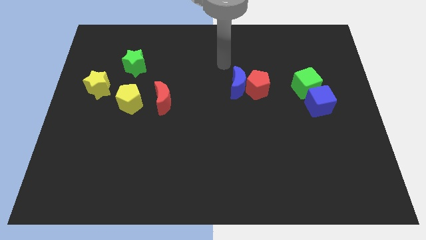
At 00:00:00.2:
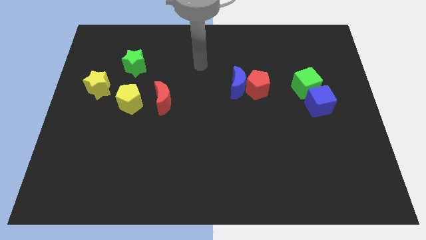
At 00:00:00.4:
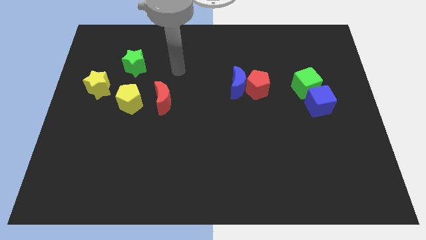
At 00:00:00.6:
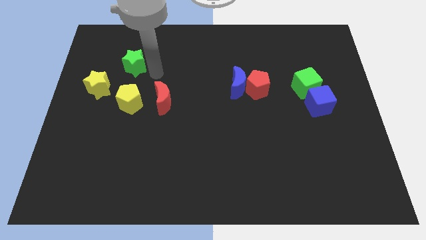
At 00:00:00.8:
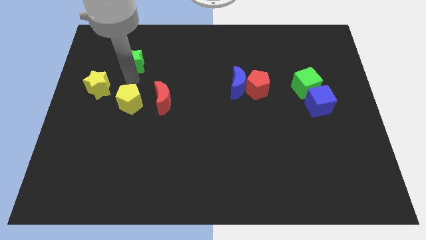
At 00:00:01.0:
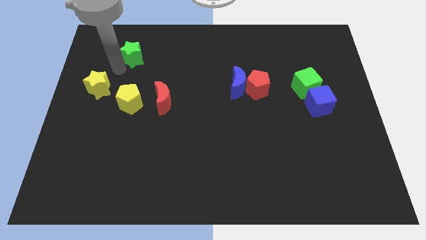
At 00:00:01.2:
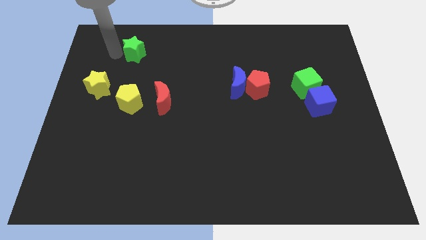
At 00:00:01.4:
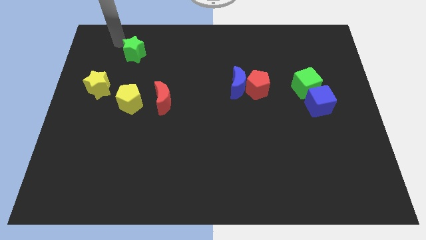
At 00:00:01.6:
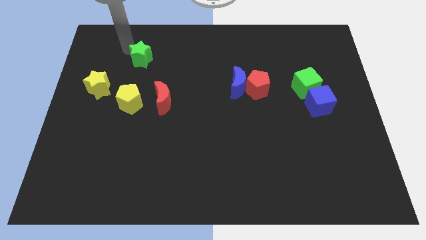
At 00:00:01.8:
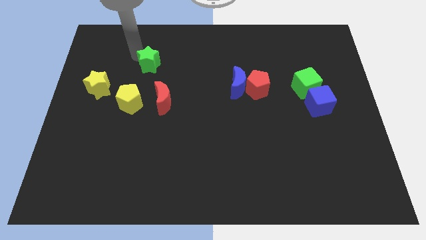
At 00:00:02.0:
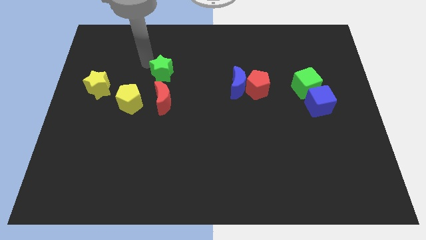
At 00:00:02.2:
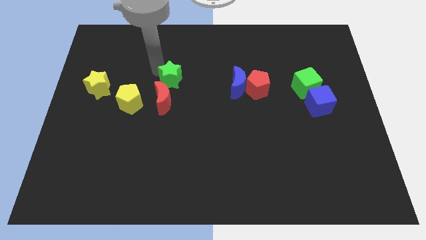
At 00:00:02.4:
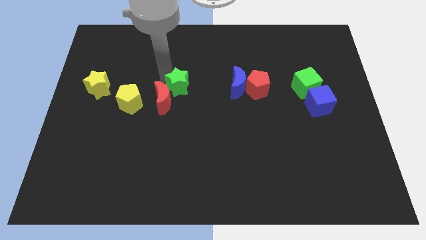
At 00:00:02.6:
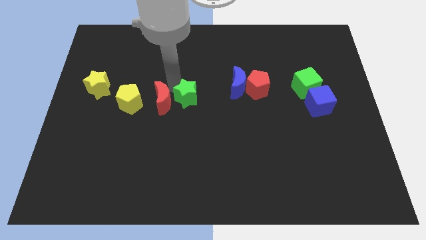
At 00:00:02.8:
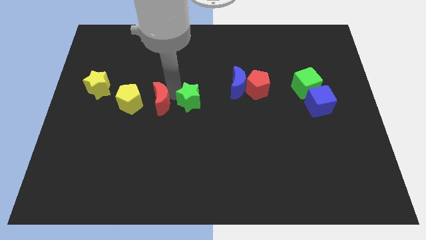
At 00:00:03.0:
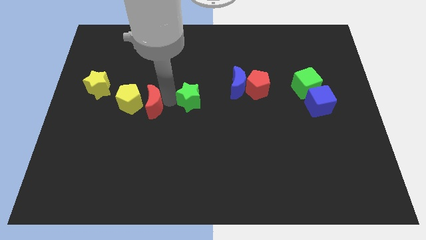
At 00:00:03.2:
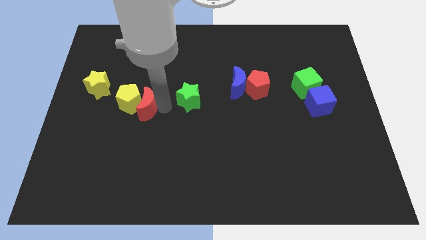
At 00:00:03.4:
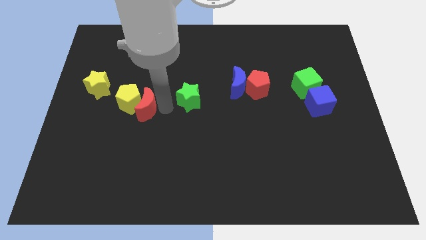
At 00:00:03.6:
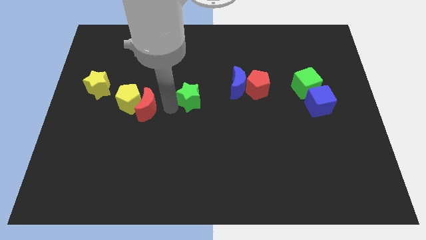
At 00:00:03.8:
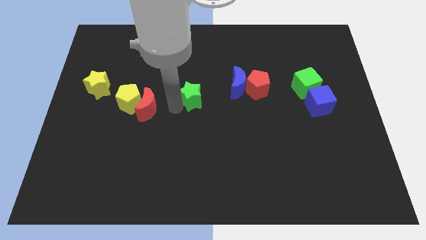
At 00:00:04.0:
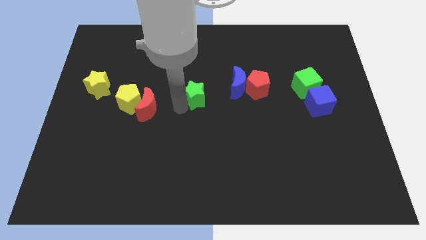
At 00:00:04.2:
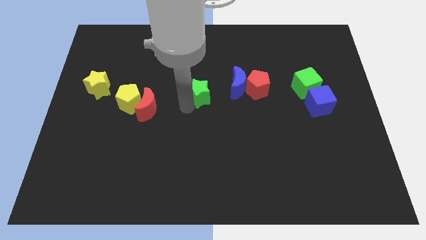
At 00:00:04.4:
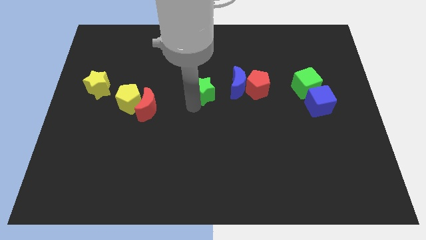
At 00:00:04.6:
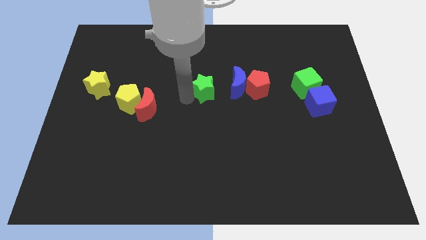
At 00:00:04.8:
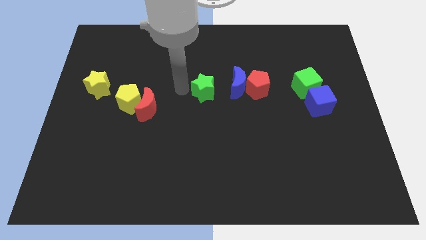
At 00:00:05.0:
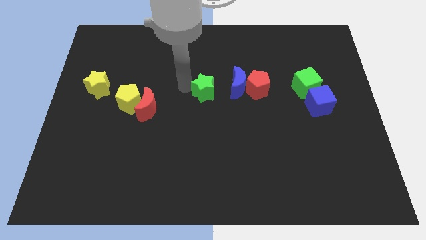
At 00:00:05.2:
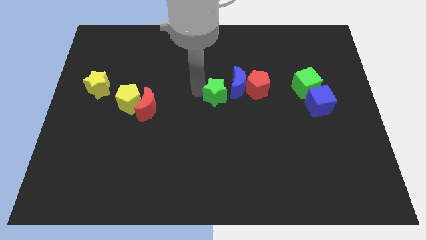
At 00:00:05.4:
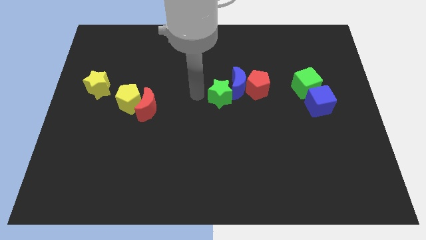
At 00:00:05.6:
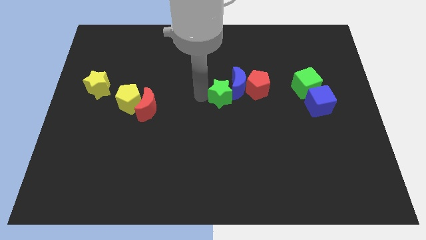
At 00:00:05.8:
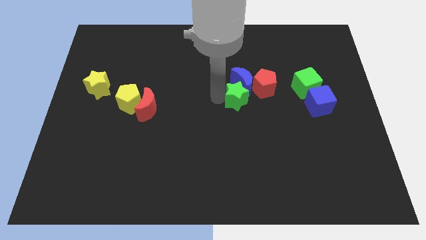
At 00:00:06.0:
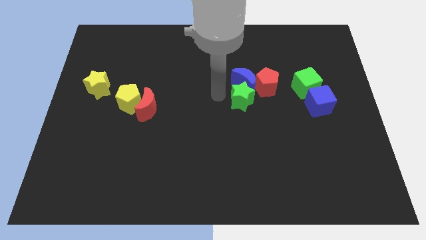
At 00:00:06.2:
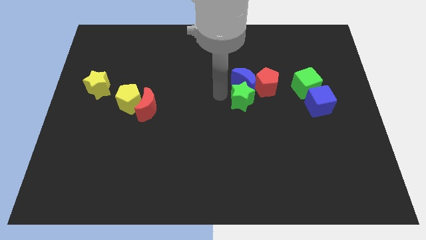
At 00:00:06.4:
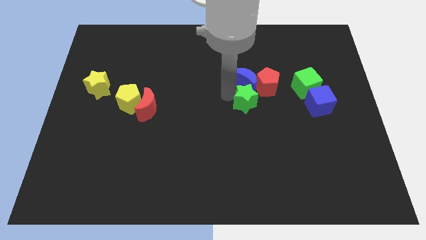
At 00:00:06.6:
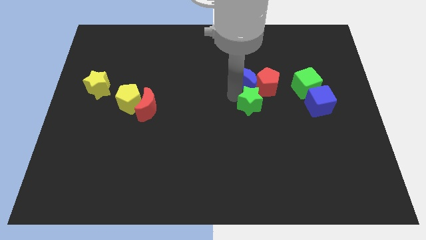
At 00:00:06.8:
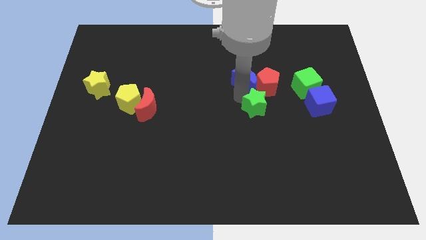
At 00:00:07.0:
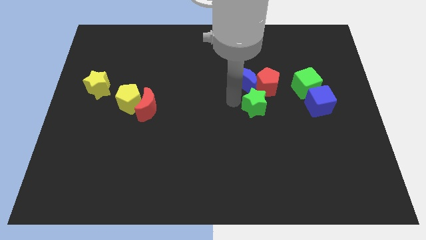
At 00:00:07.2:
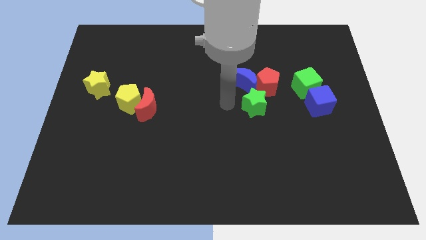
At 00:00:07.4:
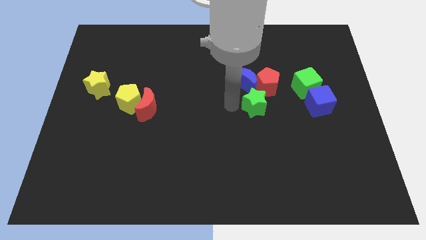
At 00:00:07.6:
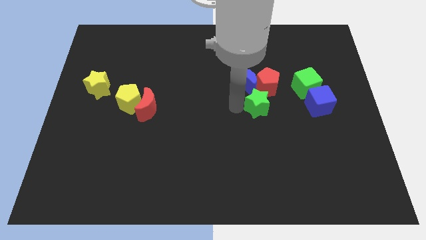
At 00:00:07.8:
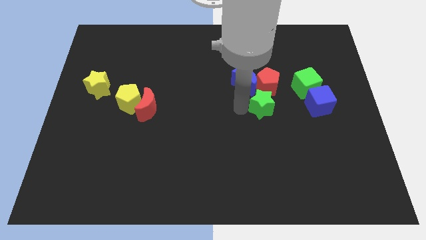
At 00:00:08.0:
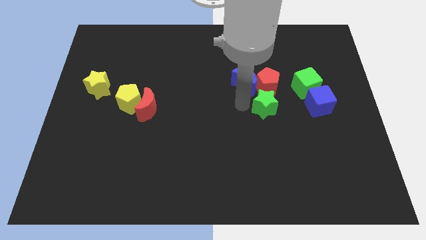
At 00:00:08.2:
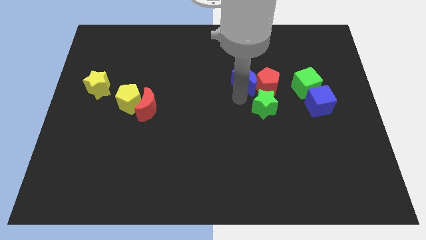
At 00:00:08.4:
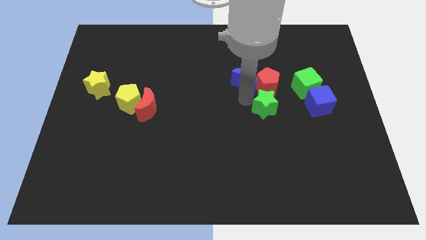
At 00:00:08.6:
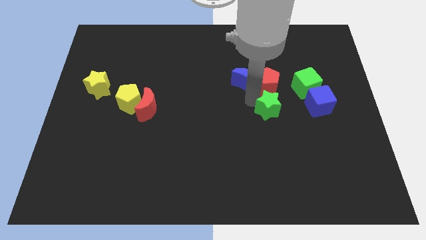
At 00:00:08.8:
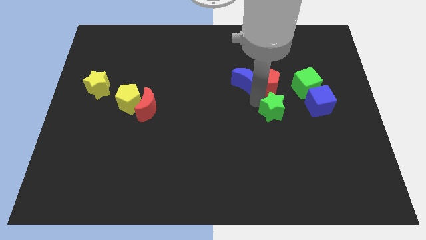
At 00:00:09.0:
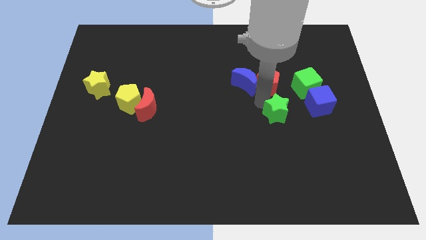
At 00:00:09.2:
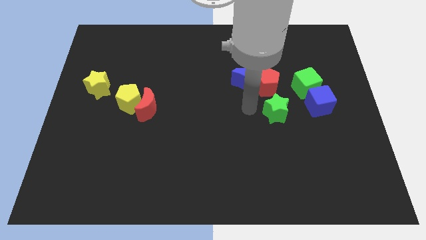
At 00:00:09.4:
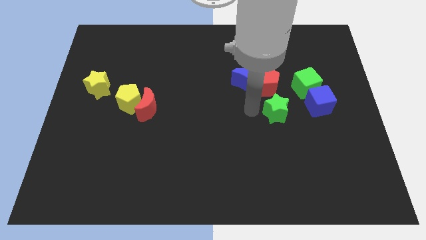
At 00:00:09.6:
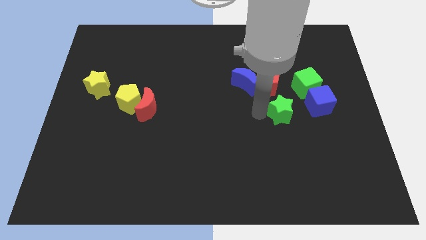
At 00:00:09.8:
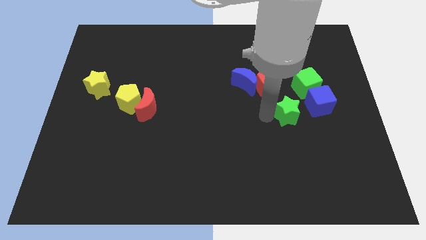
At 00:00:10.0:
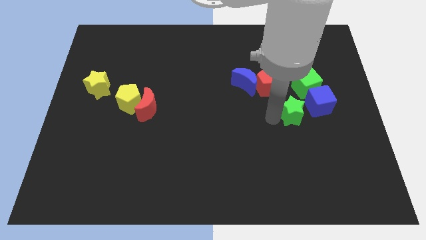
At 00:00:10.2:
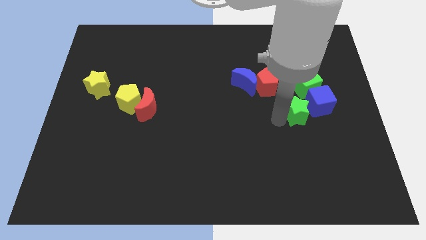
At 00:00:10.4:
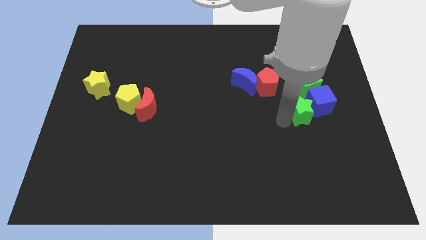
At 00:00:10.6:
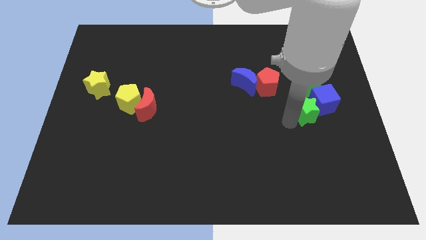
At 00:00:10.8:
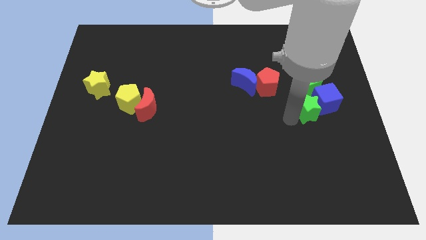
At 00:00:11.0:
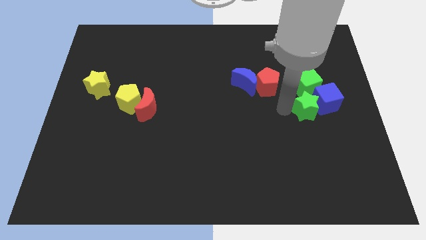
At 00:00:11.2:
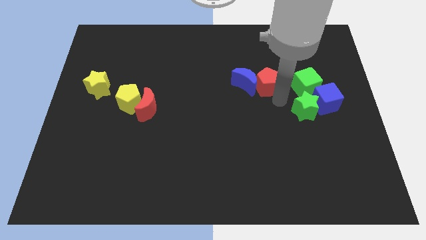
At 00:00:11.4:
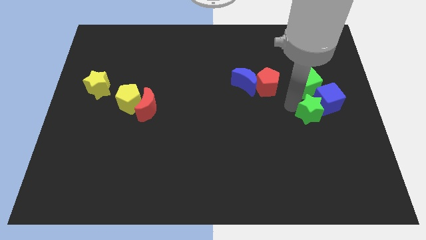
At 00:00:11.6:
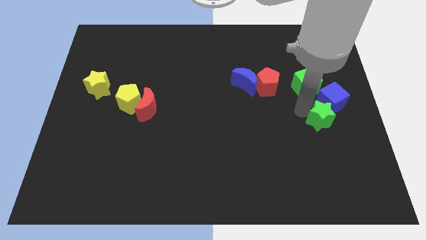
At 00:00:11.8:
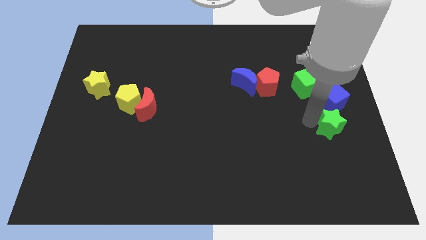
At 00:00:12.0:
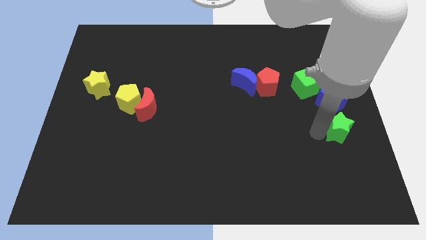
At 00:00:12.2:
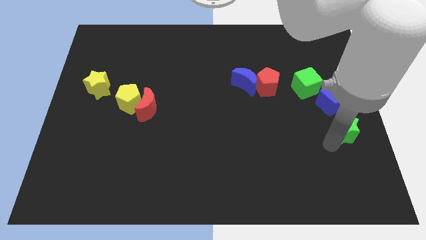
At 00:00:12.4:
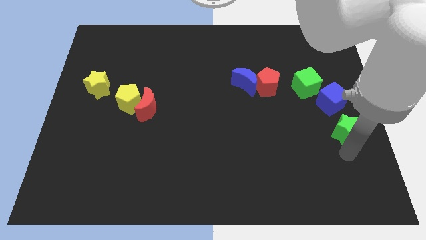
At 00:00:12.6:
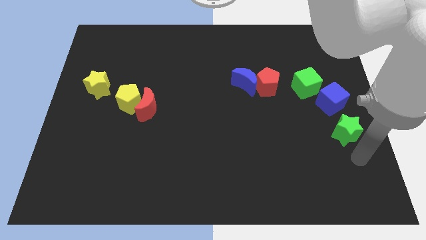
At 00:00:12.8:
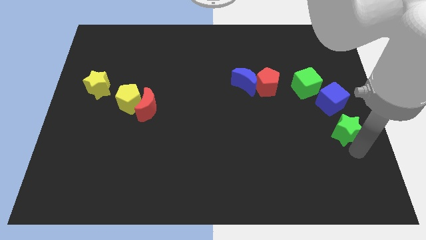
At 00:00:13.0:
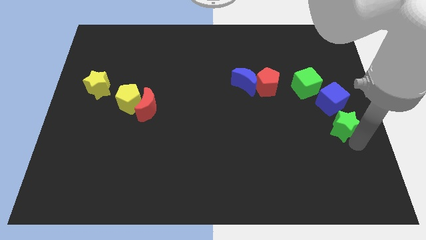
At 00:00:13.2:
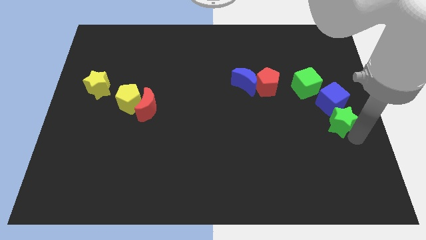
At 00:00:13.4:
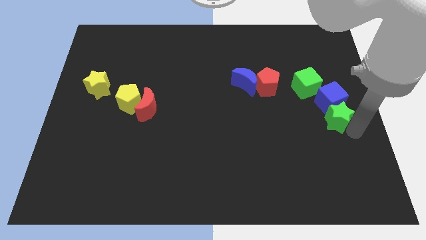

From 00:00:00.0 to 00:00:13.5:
move the green star to the bottom right of the green cube
